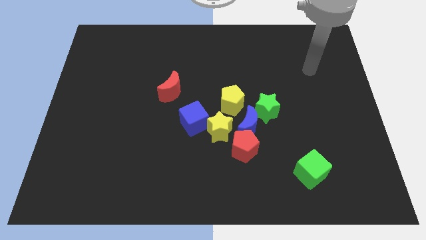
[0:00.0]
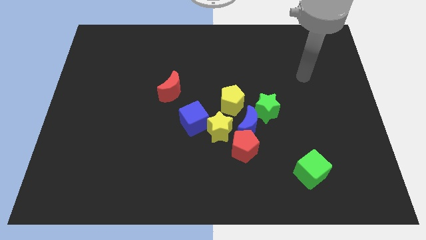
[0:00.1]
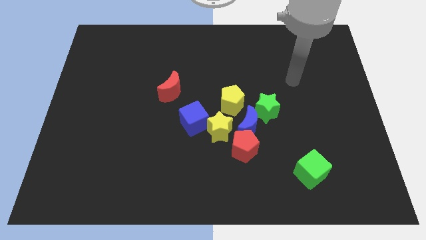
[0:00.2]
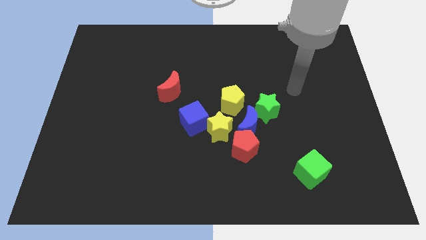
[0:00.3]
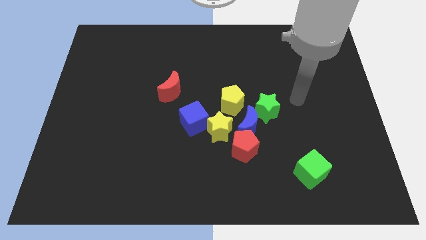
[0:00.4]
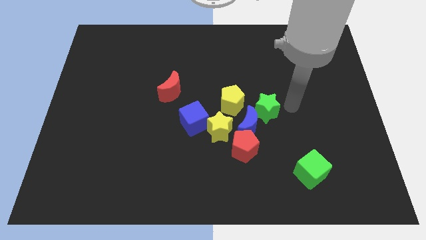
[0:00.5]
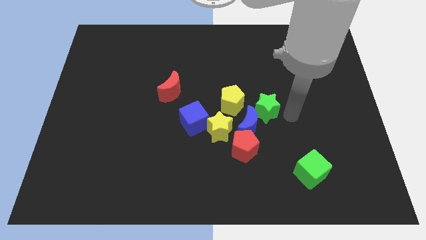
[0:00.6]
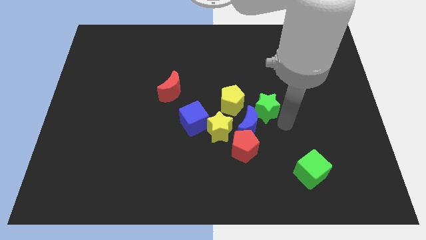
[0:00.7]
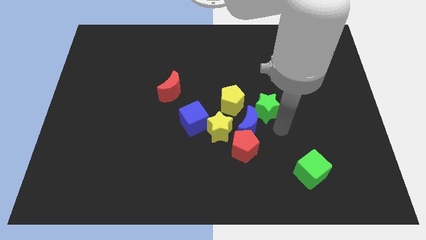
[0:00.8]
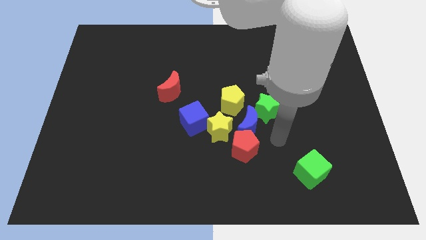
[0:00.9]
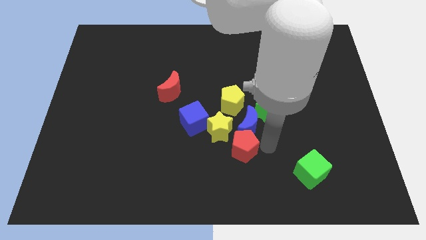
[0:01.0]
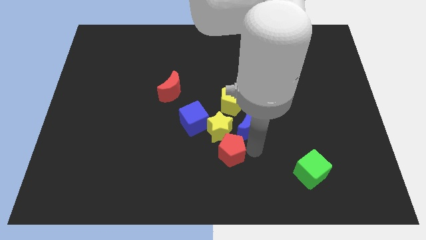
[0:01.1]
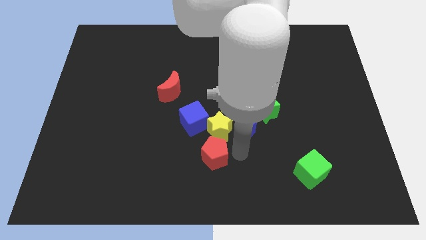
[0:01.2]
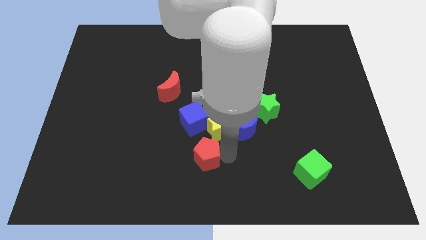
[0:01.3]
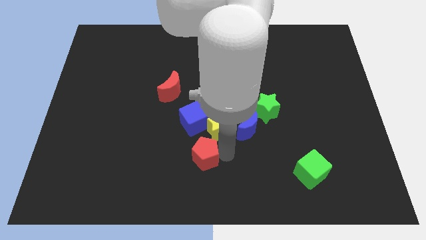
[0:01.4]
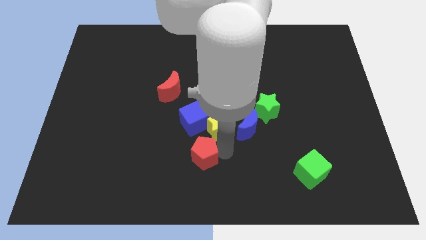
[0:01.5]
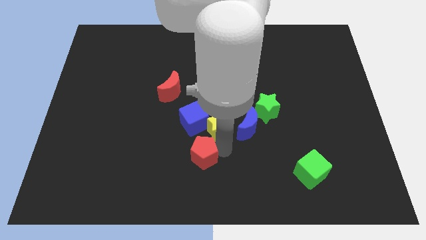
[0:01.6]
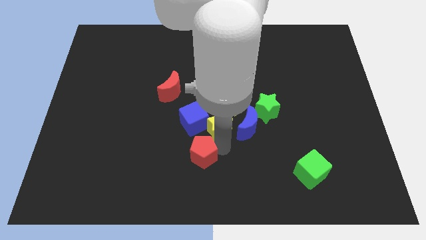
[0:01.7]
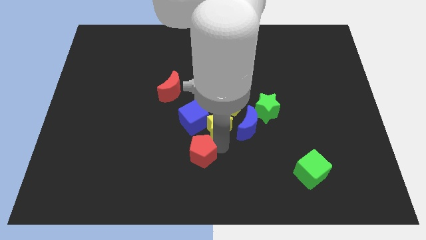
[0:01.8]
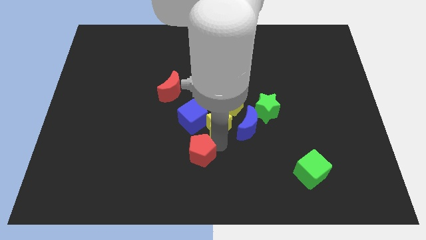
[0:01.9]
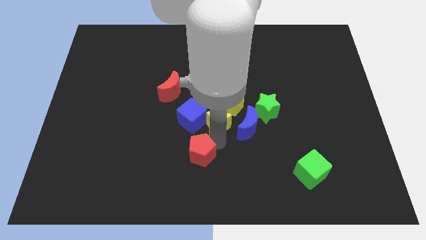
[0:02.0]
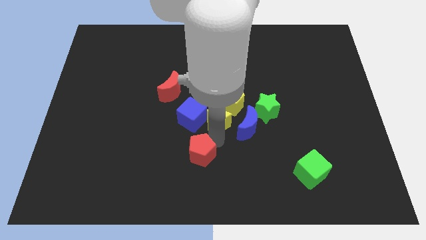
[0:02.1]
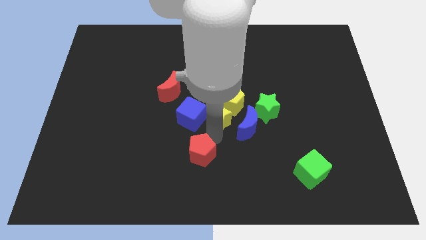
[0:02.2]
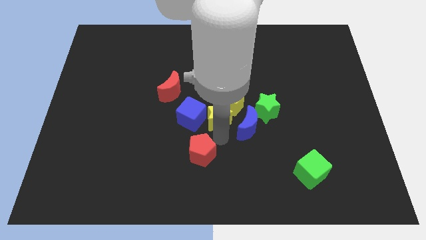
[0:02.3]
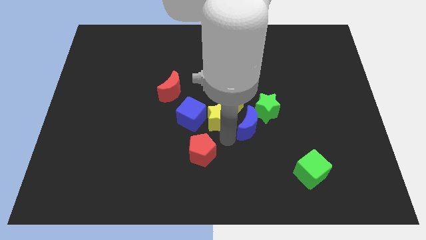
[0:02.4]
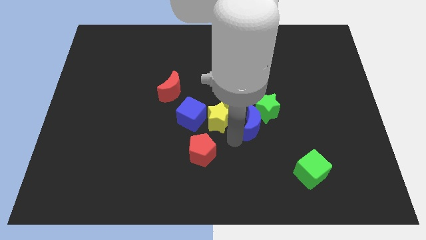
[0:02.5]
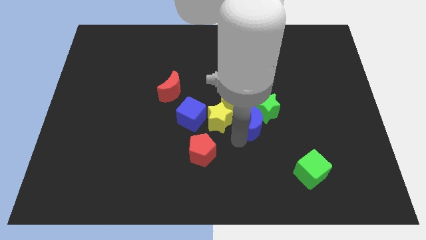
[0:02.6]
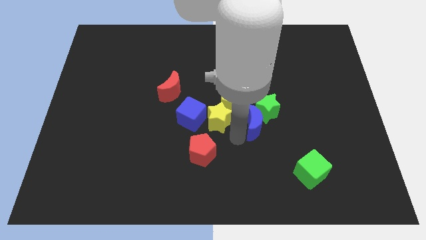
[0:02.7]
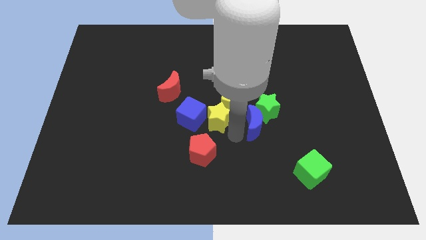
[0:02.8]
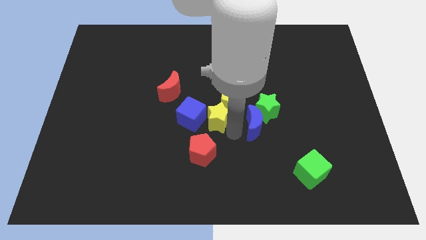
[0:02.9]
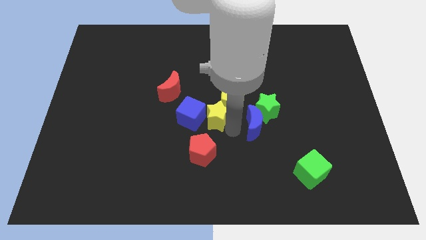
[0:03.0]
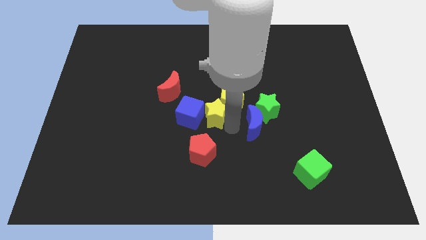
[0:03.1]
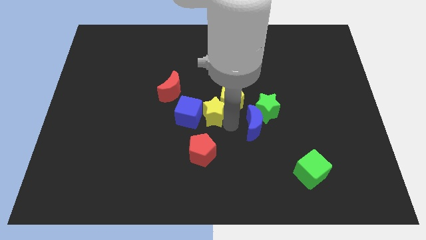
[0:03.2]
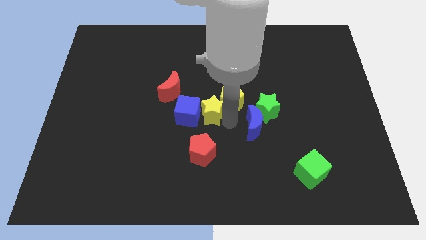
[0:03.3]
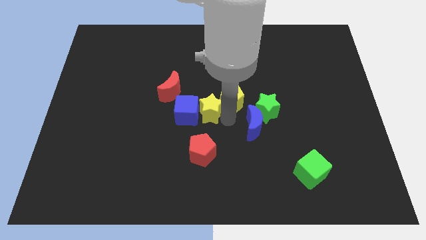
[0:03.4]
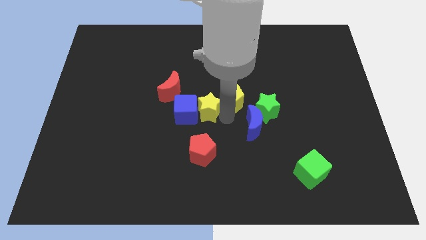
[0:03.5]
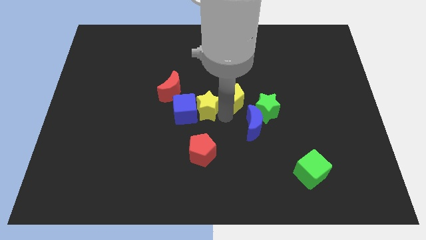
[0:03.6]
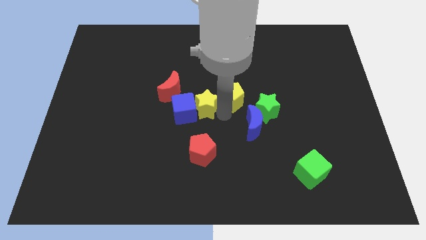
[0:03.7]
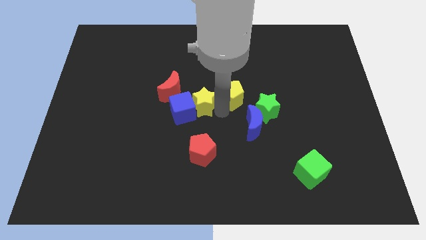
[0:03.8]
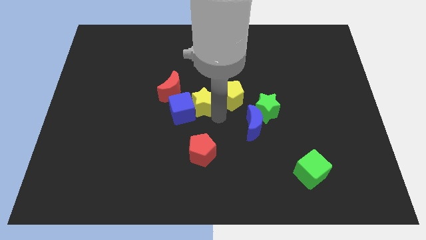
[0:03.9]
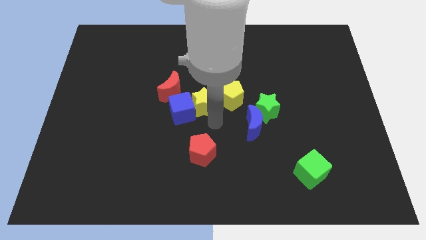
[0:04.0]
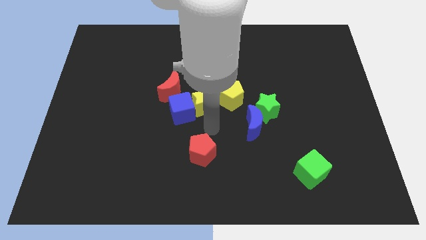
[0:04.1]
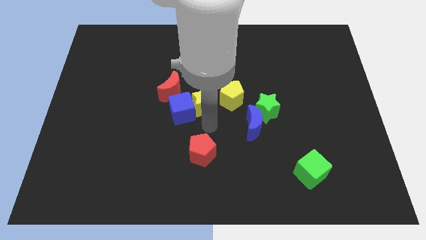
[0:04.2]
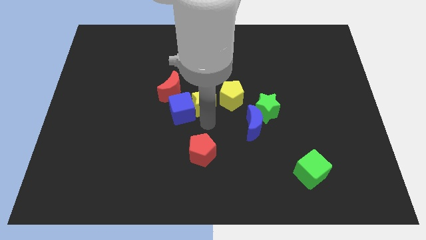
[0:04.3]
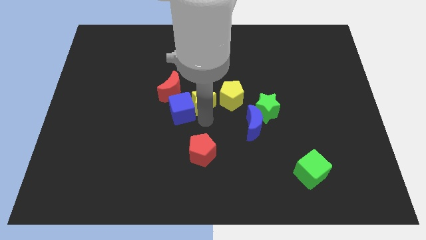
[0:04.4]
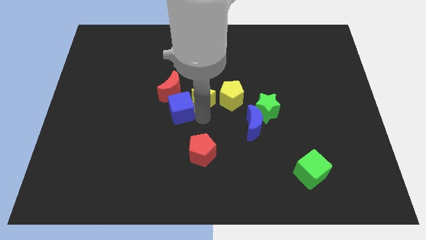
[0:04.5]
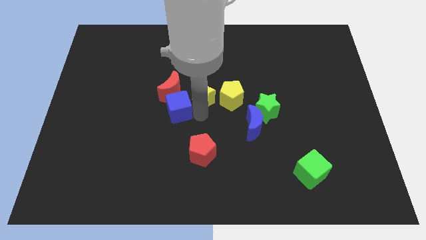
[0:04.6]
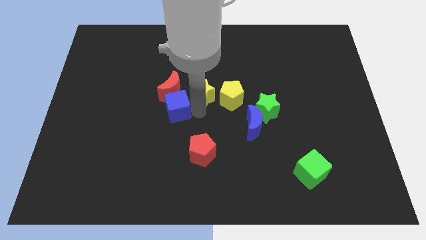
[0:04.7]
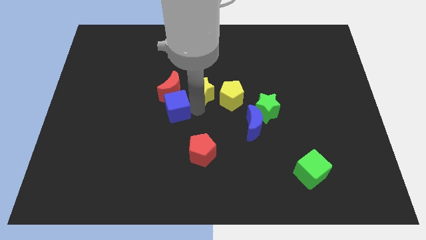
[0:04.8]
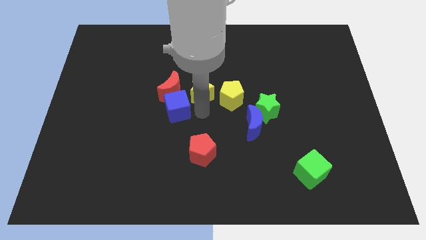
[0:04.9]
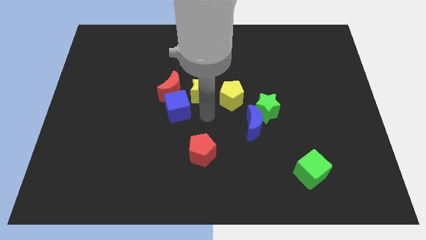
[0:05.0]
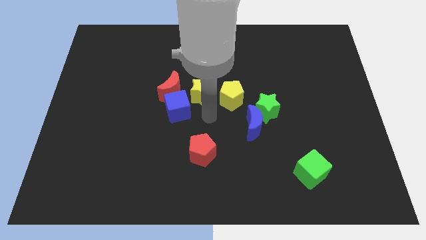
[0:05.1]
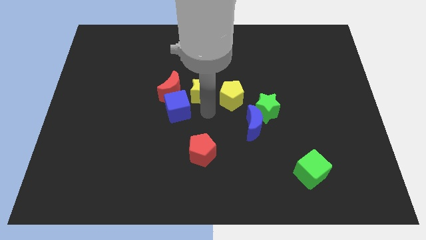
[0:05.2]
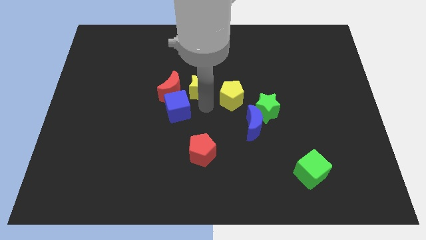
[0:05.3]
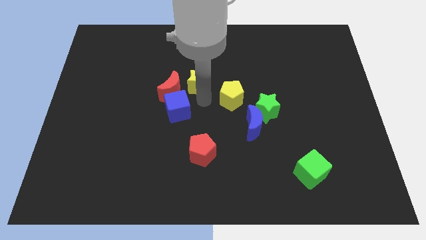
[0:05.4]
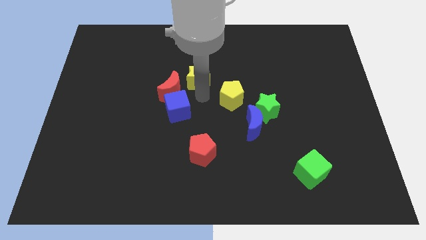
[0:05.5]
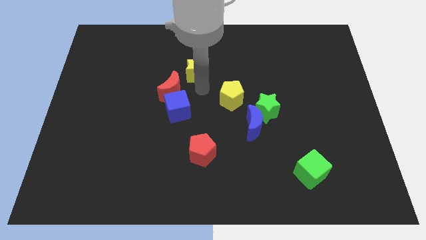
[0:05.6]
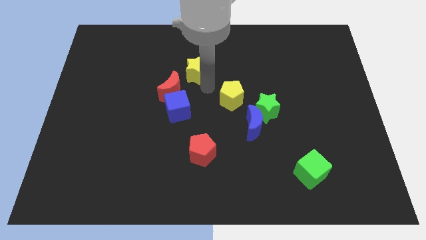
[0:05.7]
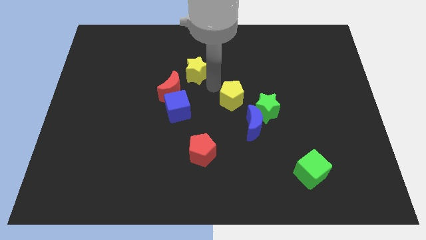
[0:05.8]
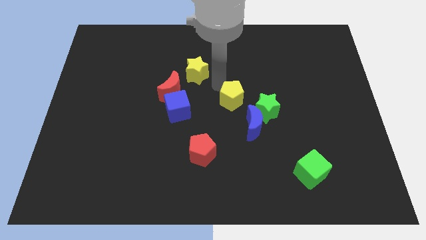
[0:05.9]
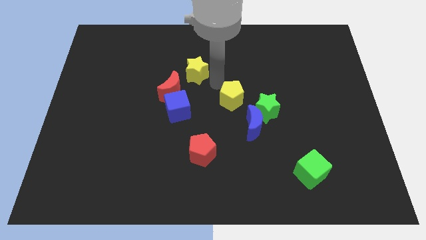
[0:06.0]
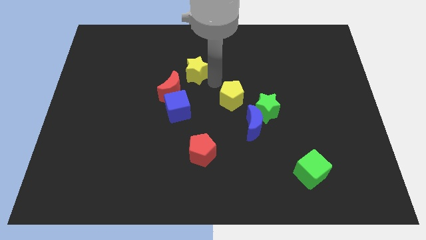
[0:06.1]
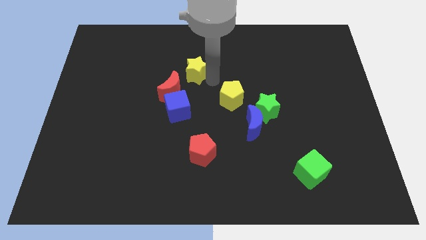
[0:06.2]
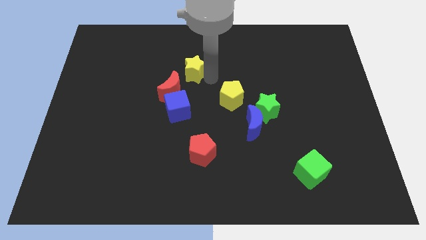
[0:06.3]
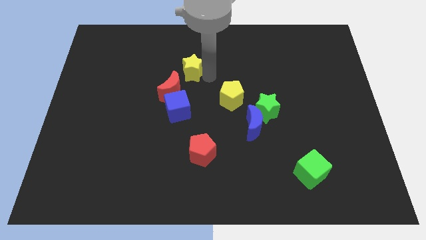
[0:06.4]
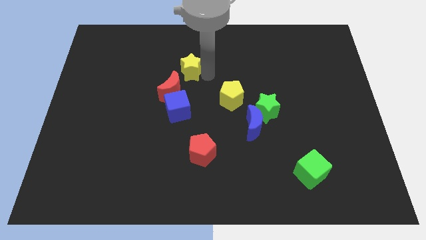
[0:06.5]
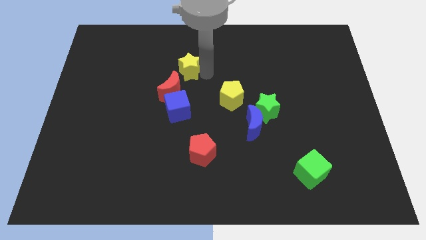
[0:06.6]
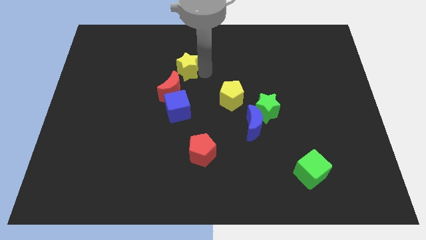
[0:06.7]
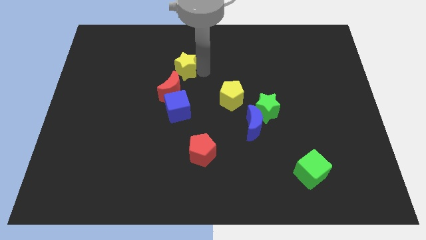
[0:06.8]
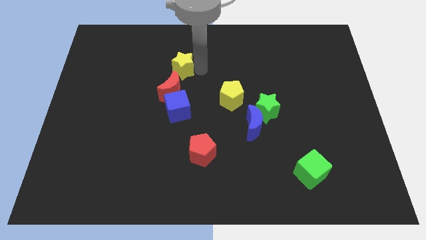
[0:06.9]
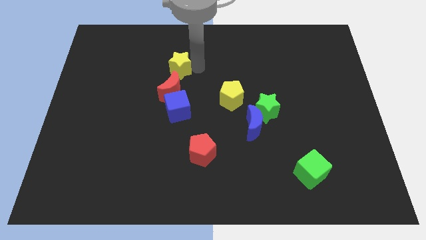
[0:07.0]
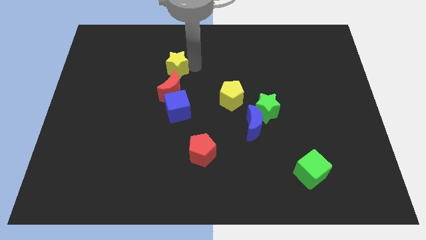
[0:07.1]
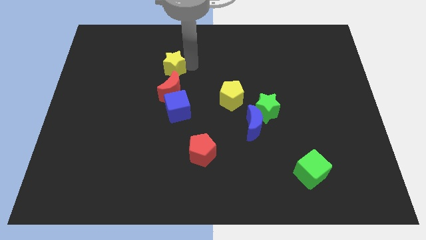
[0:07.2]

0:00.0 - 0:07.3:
slide the yellow star diagonally up and left
